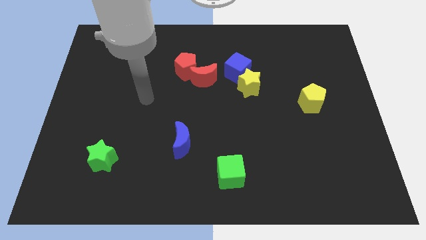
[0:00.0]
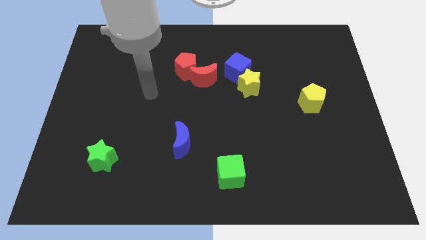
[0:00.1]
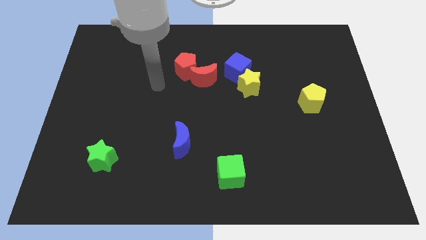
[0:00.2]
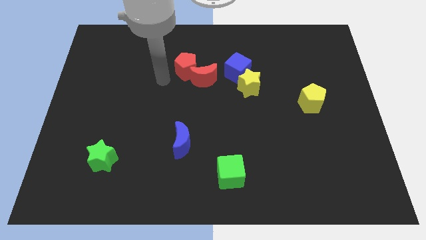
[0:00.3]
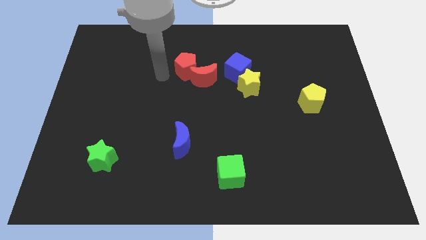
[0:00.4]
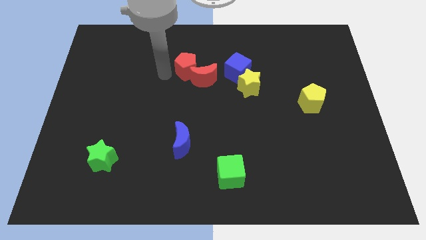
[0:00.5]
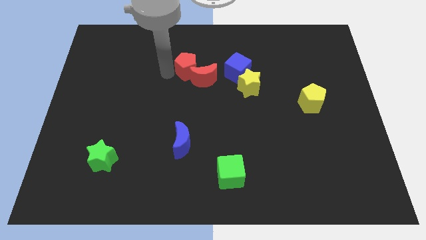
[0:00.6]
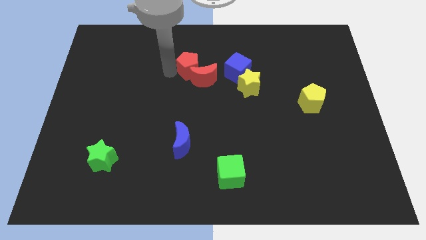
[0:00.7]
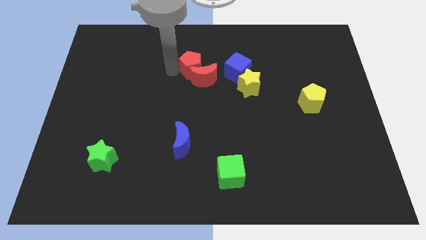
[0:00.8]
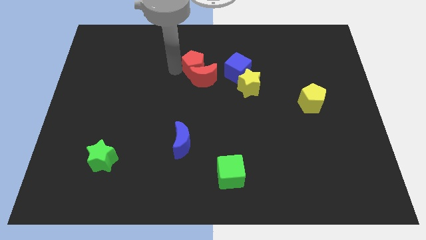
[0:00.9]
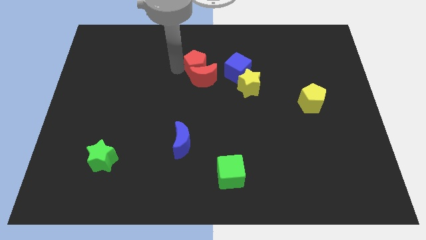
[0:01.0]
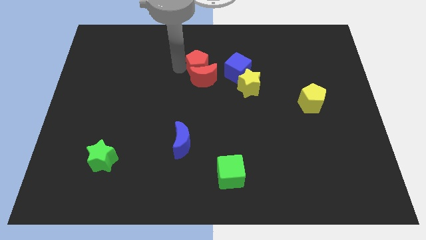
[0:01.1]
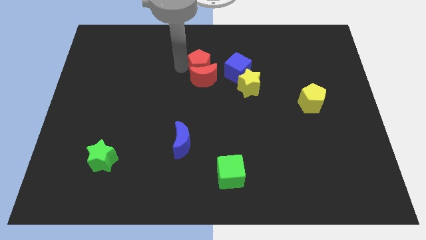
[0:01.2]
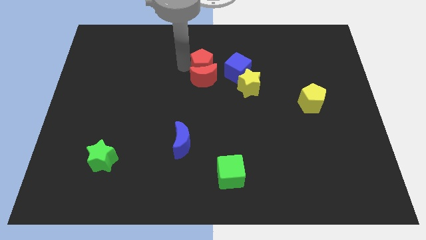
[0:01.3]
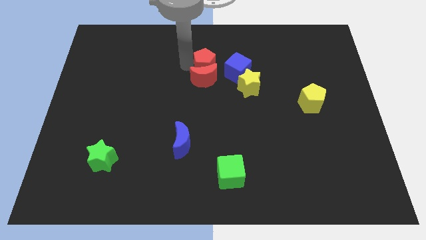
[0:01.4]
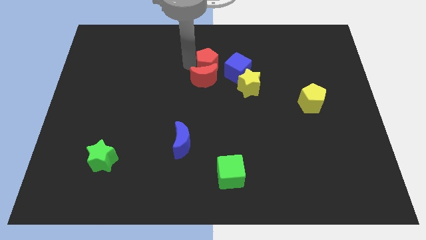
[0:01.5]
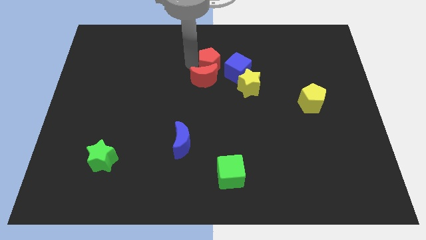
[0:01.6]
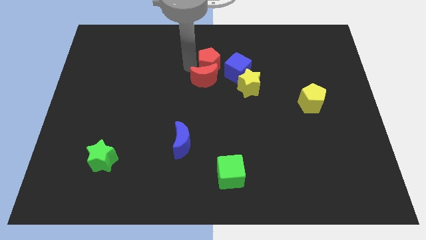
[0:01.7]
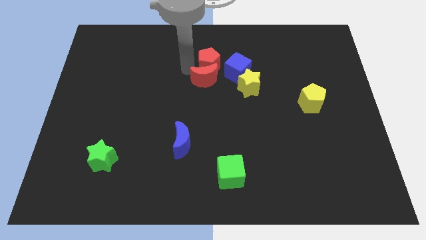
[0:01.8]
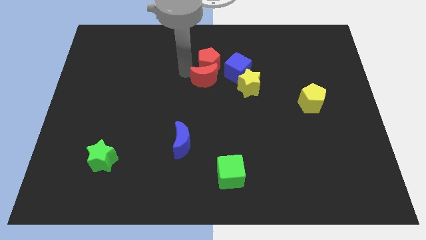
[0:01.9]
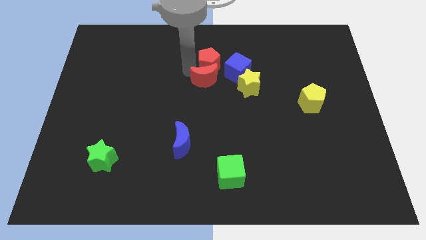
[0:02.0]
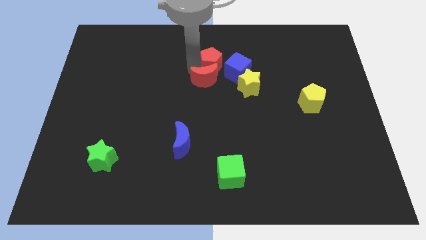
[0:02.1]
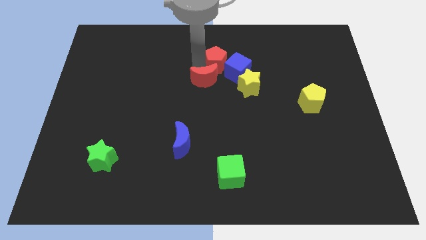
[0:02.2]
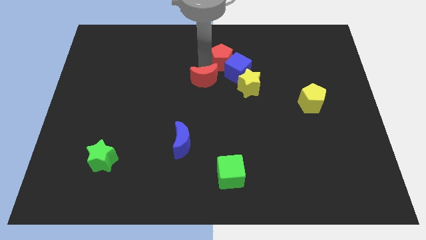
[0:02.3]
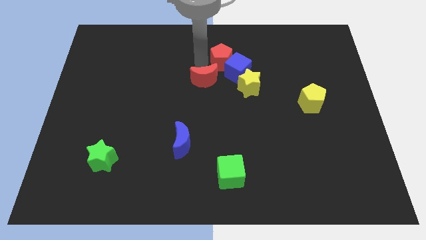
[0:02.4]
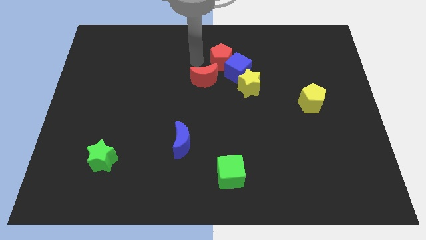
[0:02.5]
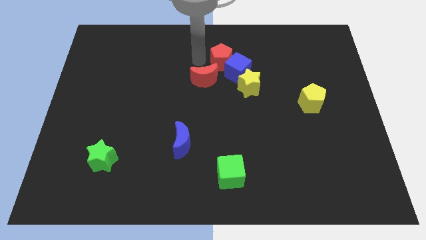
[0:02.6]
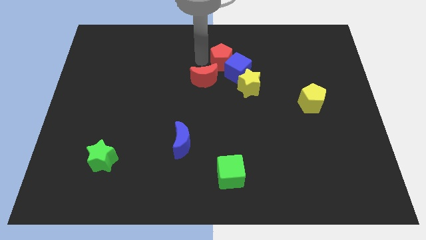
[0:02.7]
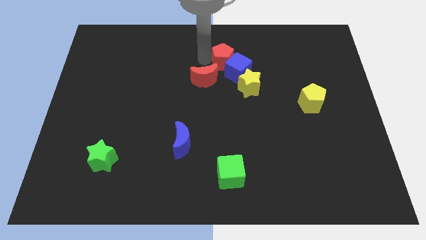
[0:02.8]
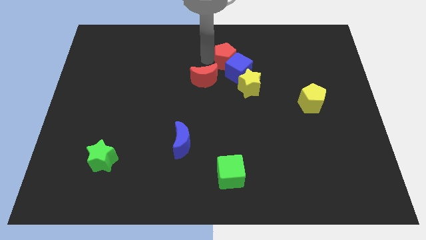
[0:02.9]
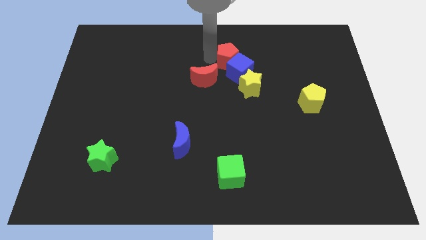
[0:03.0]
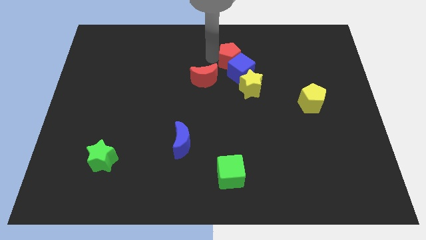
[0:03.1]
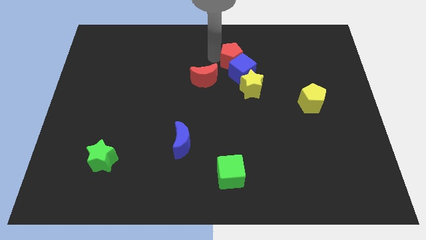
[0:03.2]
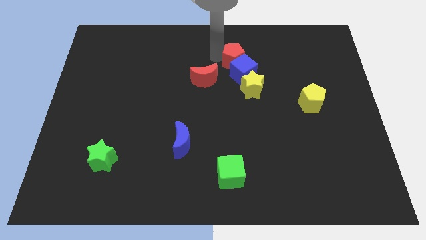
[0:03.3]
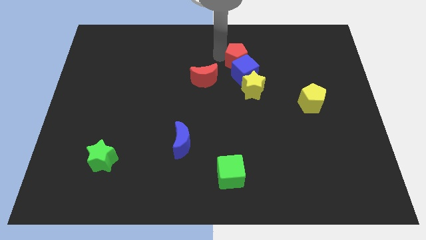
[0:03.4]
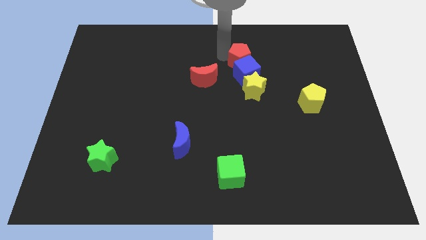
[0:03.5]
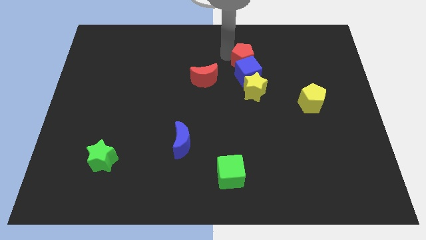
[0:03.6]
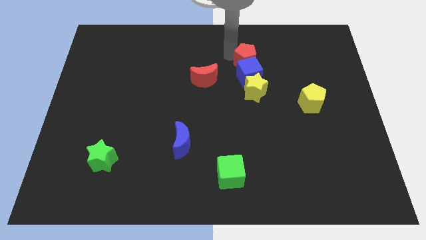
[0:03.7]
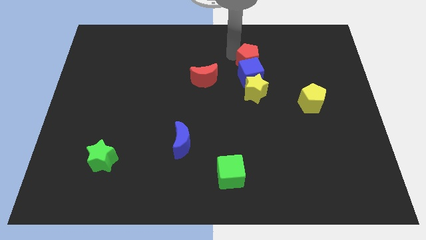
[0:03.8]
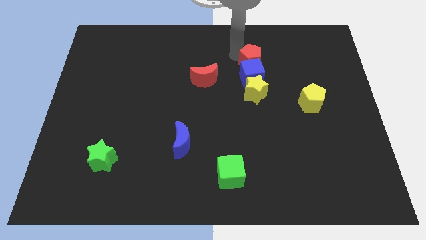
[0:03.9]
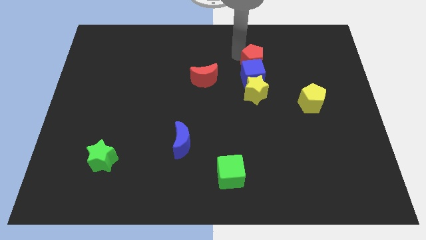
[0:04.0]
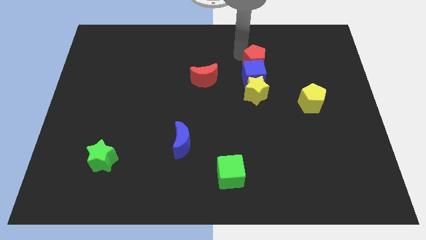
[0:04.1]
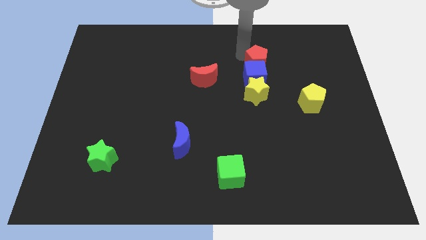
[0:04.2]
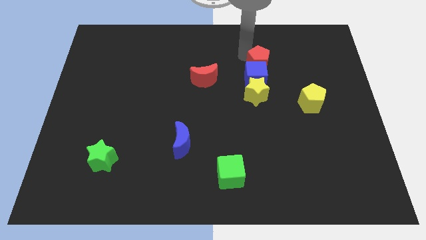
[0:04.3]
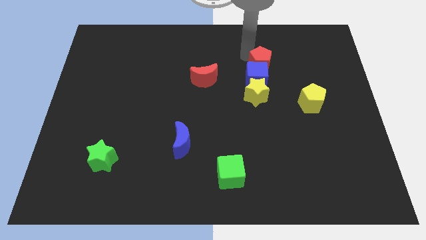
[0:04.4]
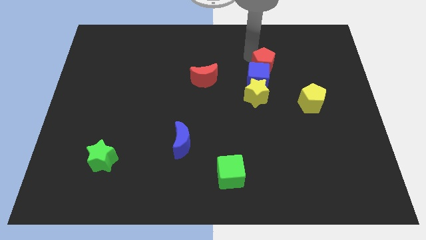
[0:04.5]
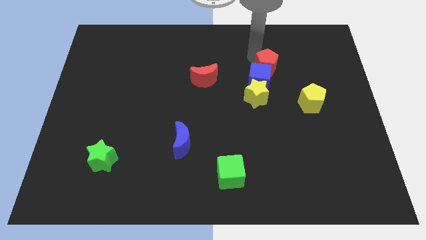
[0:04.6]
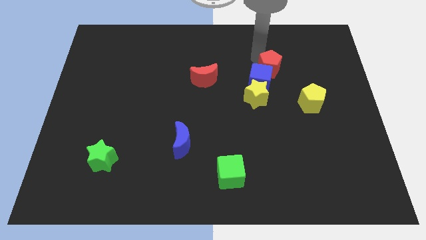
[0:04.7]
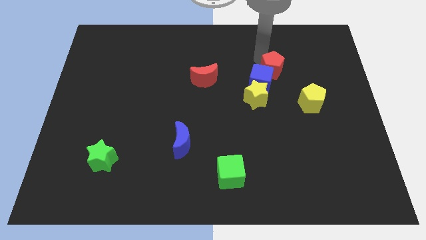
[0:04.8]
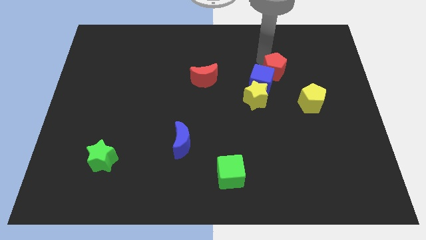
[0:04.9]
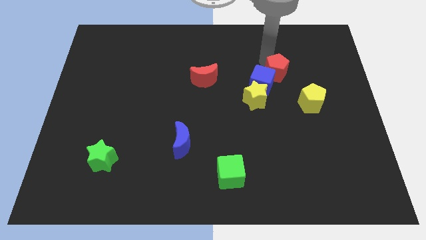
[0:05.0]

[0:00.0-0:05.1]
put the red pentagon diagonally up and to the left of the yellow pentagon

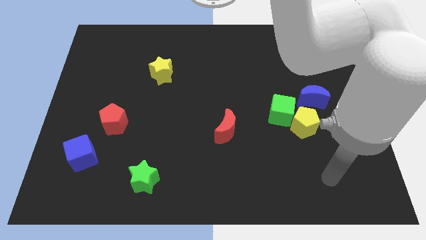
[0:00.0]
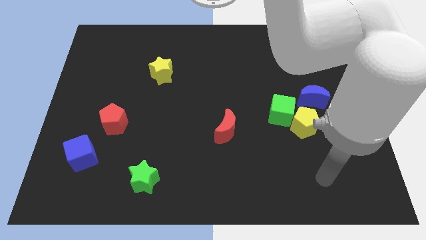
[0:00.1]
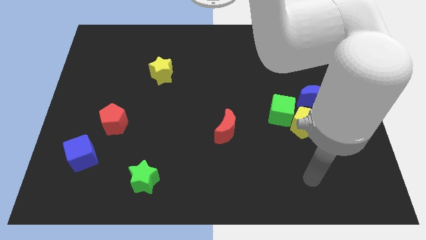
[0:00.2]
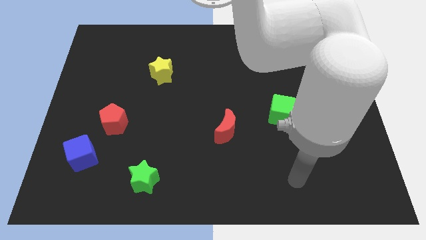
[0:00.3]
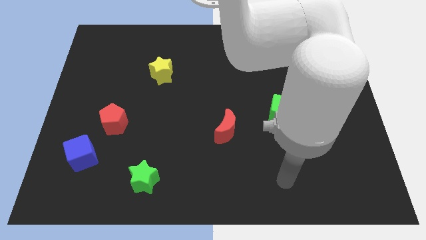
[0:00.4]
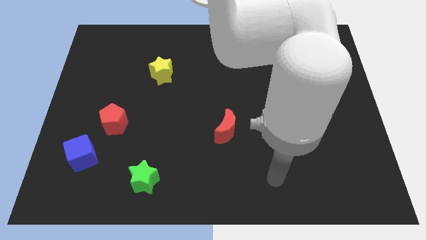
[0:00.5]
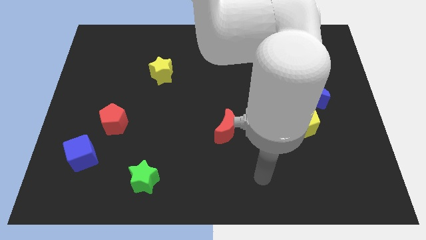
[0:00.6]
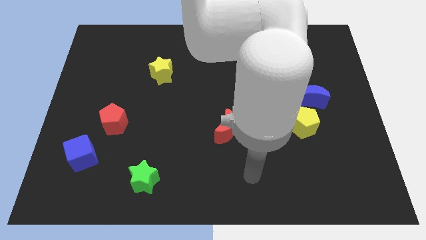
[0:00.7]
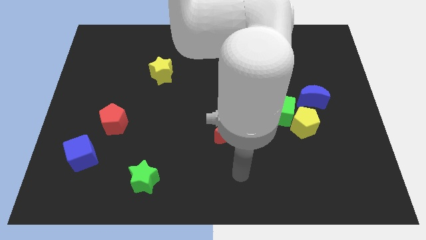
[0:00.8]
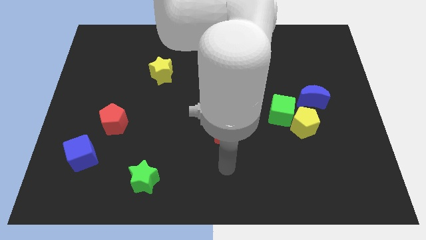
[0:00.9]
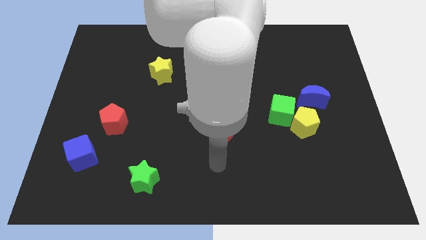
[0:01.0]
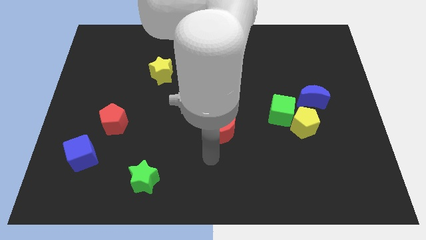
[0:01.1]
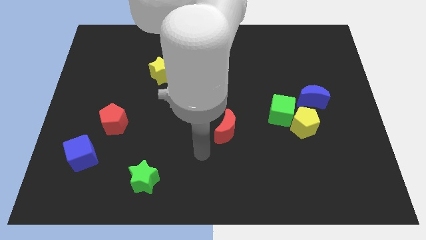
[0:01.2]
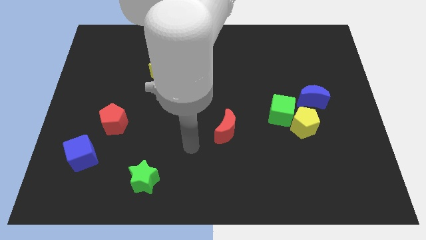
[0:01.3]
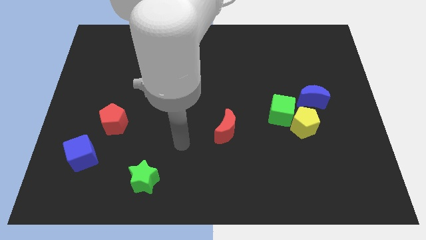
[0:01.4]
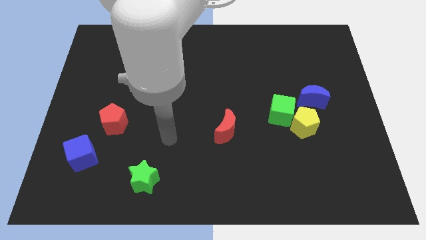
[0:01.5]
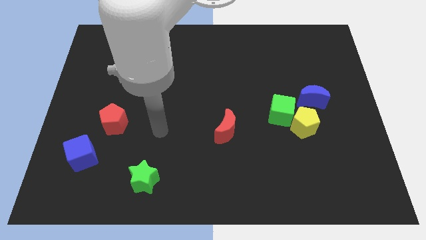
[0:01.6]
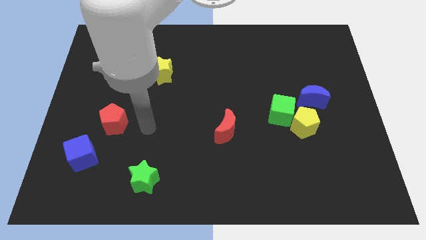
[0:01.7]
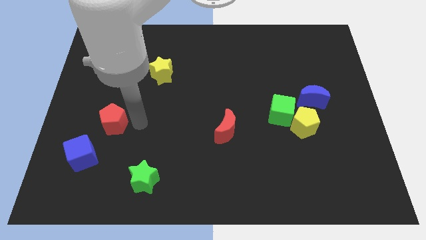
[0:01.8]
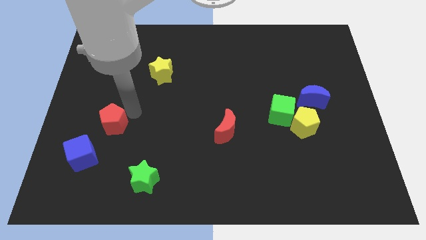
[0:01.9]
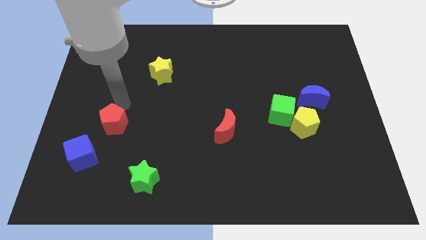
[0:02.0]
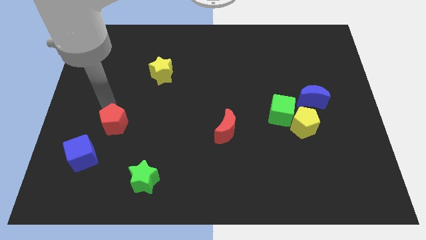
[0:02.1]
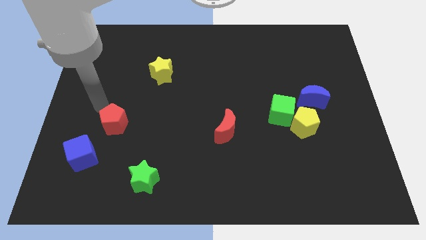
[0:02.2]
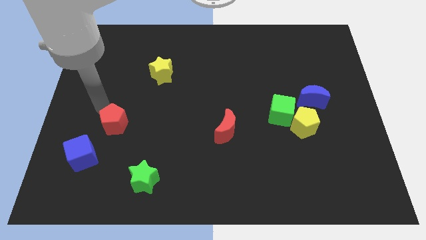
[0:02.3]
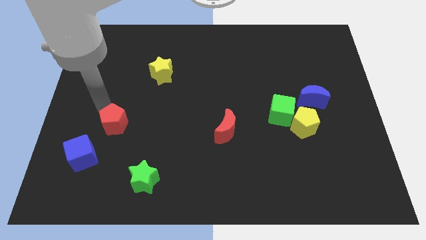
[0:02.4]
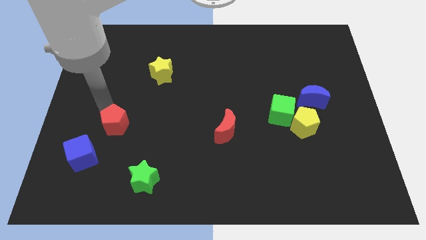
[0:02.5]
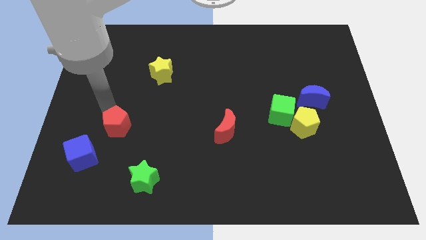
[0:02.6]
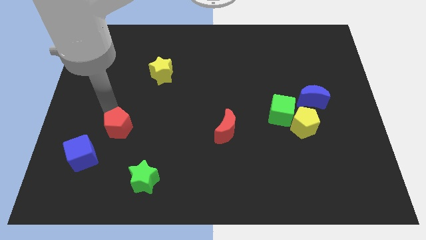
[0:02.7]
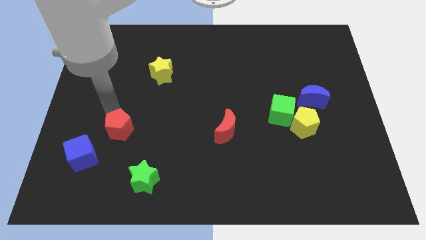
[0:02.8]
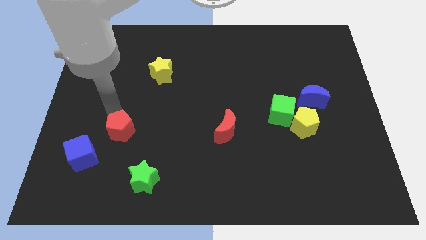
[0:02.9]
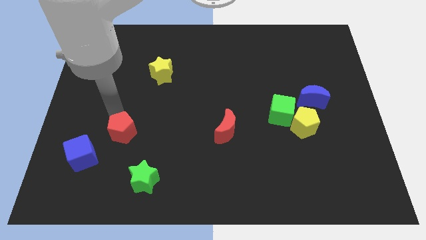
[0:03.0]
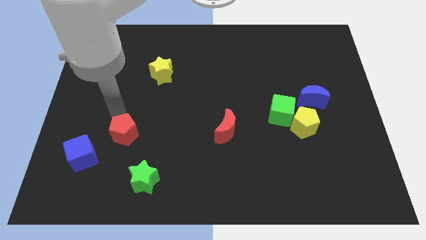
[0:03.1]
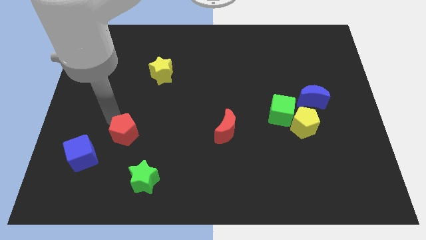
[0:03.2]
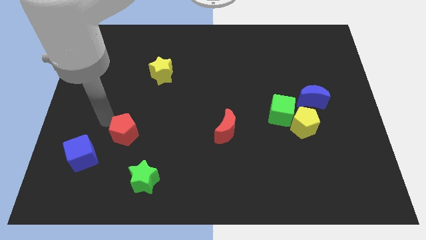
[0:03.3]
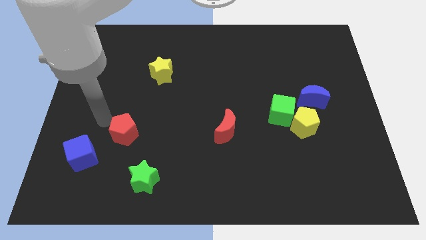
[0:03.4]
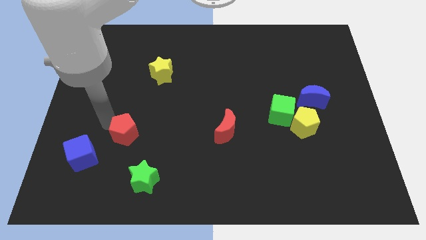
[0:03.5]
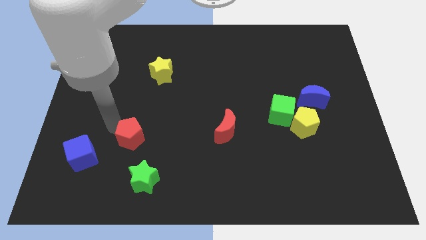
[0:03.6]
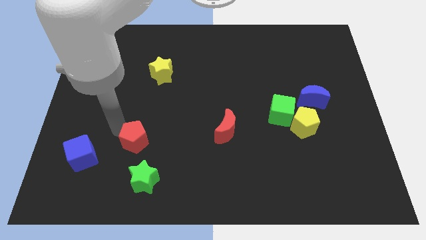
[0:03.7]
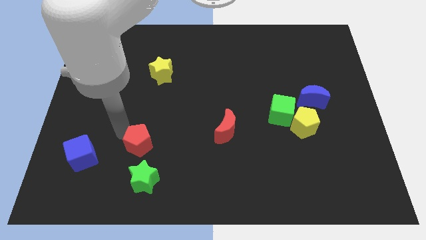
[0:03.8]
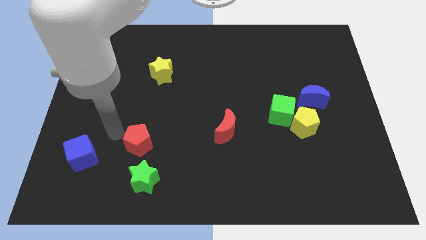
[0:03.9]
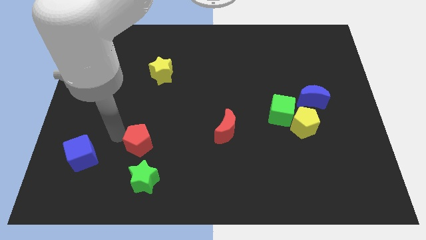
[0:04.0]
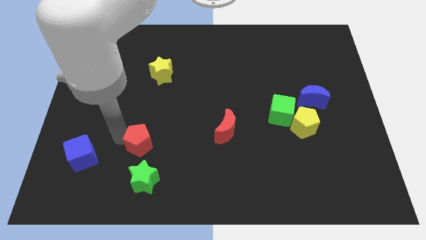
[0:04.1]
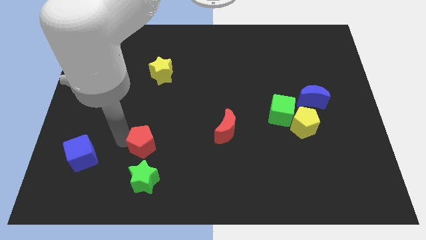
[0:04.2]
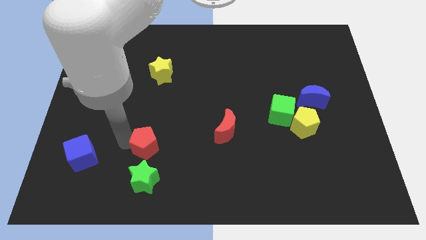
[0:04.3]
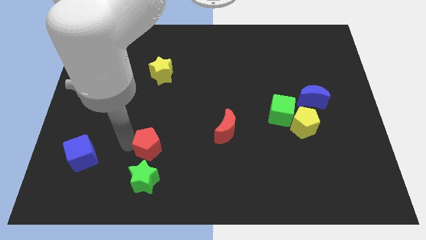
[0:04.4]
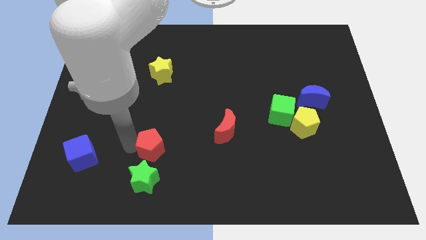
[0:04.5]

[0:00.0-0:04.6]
put the red pentagon to the top right side of the green star
